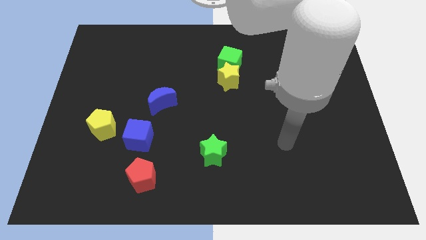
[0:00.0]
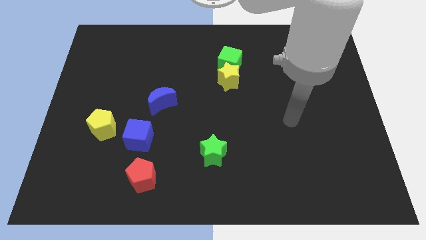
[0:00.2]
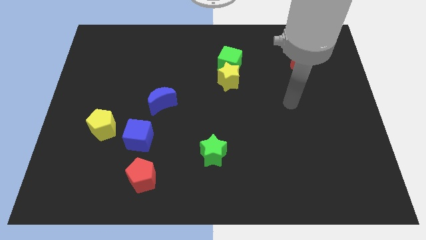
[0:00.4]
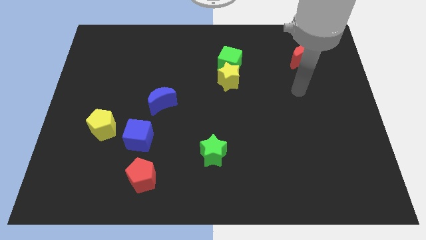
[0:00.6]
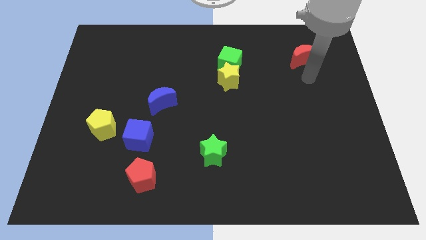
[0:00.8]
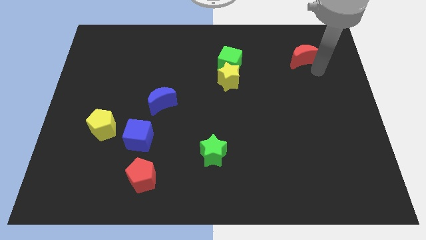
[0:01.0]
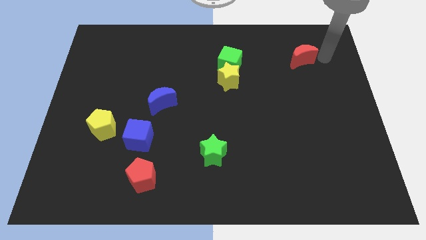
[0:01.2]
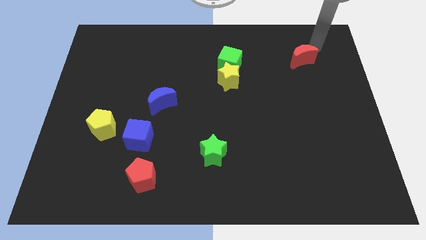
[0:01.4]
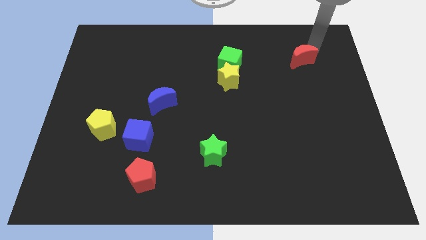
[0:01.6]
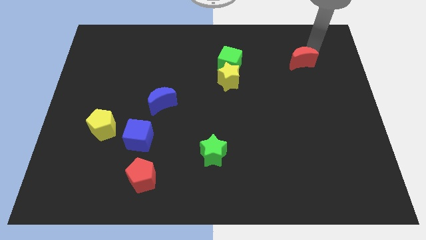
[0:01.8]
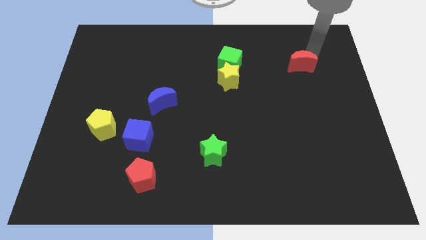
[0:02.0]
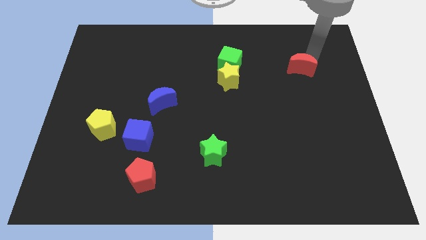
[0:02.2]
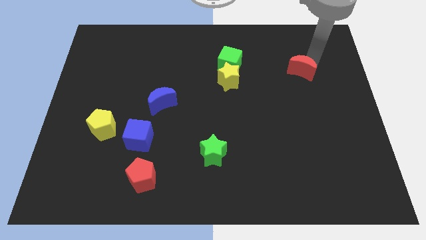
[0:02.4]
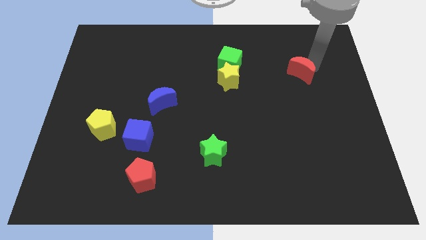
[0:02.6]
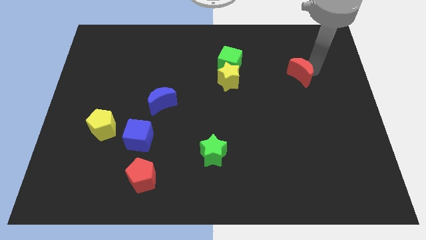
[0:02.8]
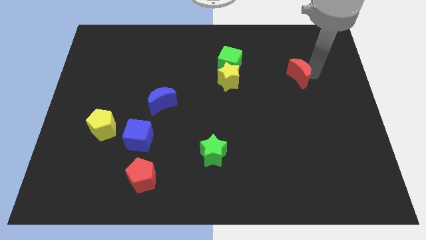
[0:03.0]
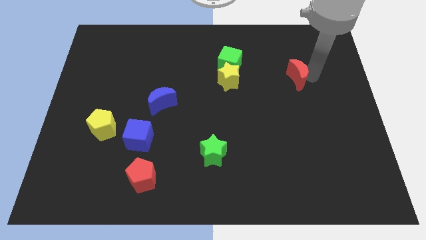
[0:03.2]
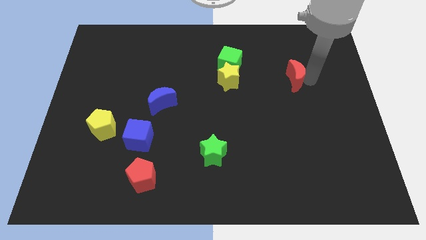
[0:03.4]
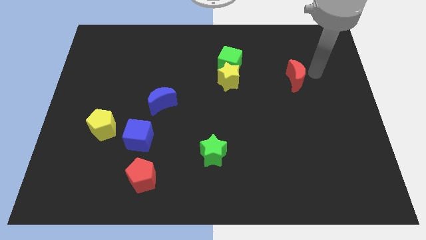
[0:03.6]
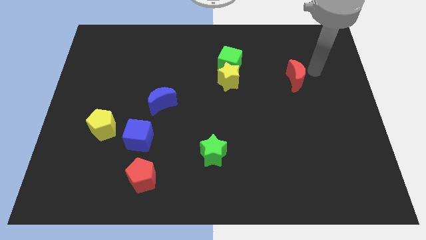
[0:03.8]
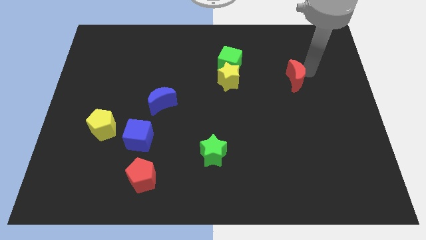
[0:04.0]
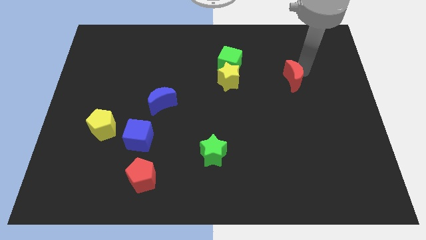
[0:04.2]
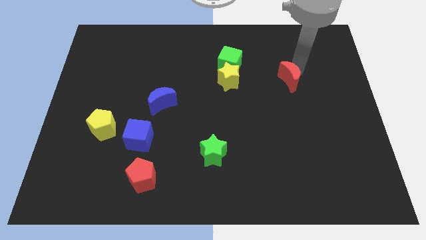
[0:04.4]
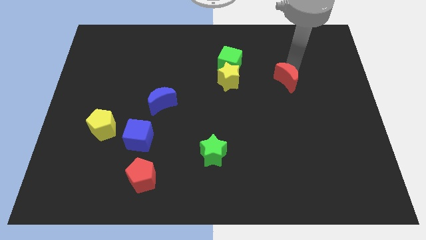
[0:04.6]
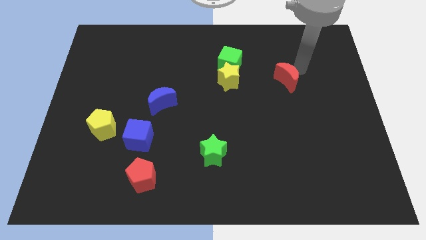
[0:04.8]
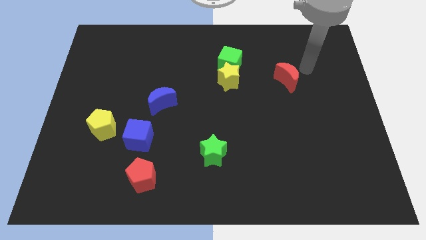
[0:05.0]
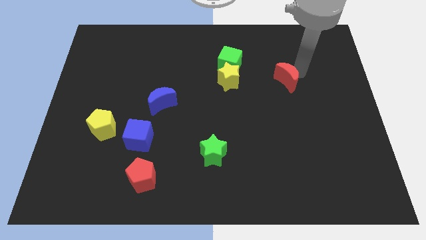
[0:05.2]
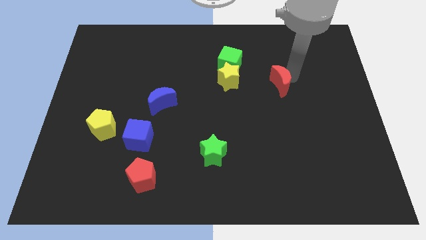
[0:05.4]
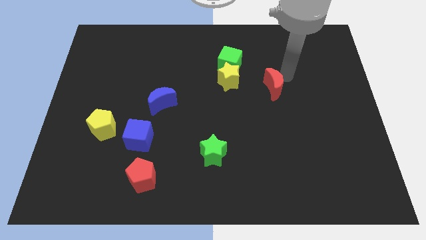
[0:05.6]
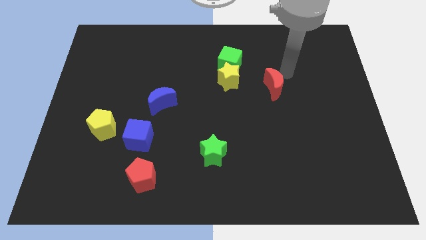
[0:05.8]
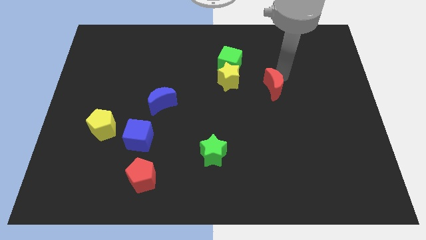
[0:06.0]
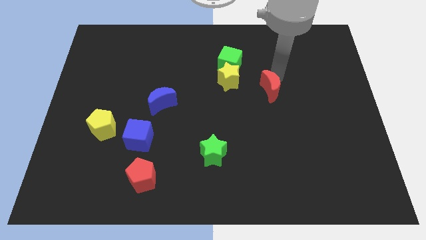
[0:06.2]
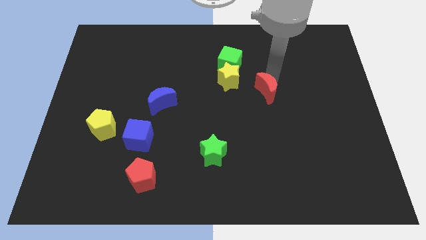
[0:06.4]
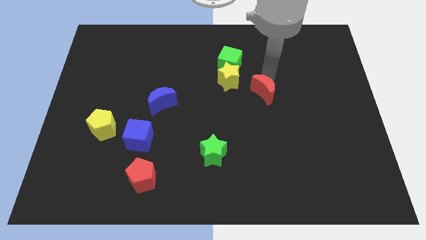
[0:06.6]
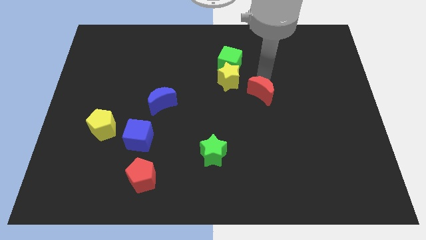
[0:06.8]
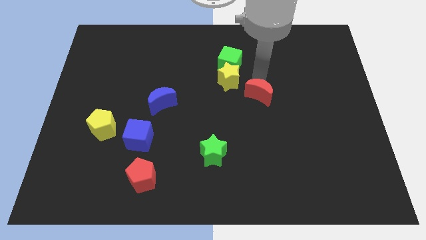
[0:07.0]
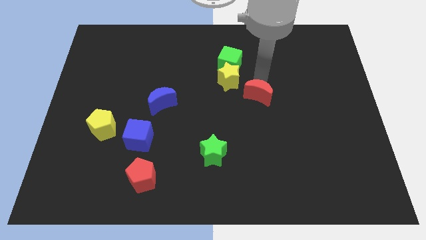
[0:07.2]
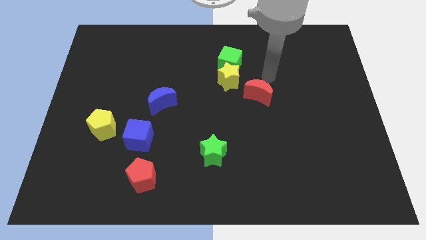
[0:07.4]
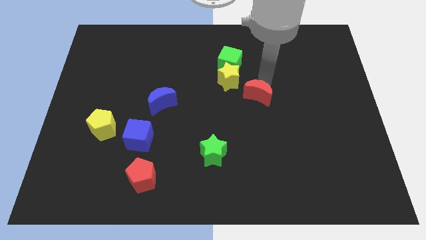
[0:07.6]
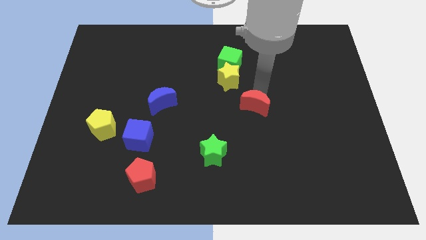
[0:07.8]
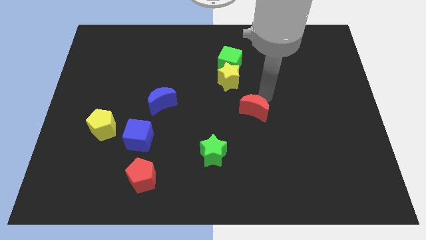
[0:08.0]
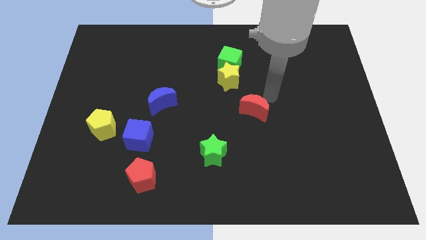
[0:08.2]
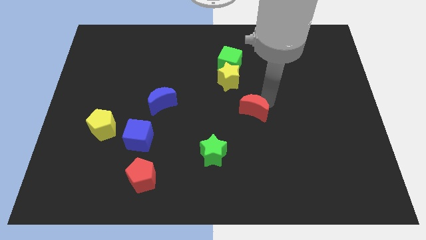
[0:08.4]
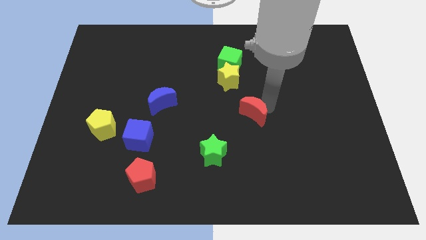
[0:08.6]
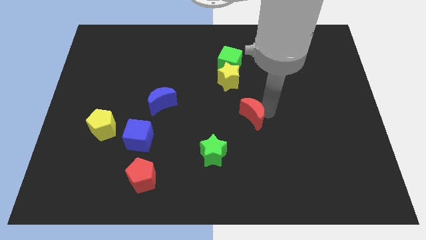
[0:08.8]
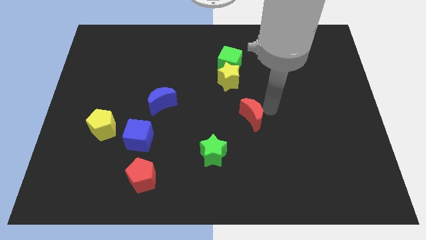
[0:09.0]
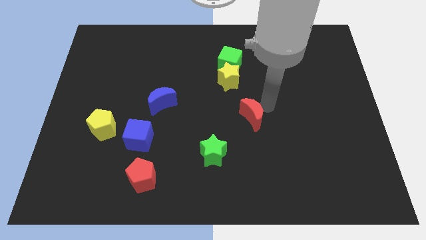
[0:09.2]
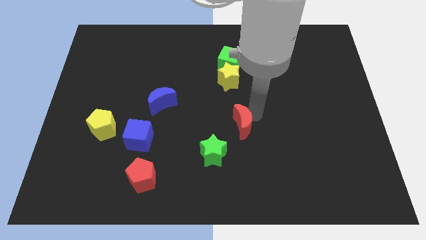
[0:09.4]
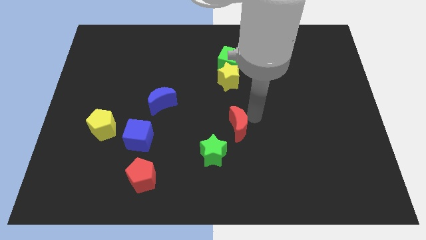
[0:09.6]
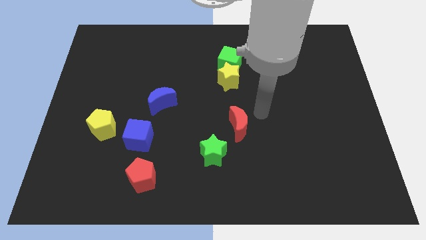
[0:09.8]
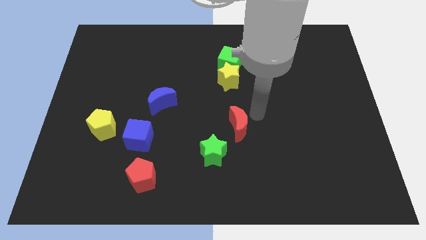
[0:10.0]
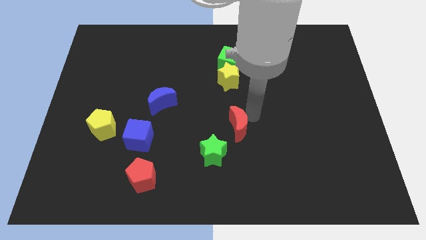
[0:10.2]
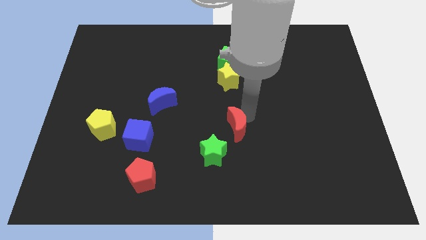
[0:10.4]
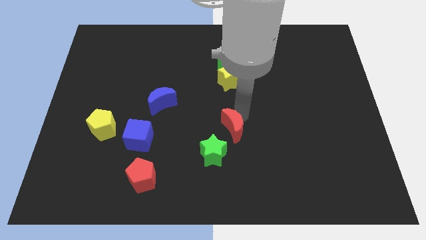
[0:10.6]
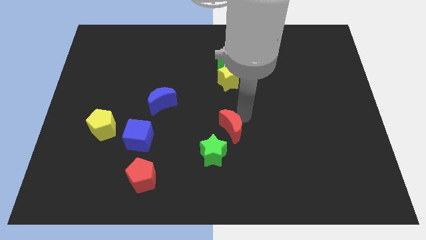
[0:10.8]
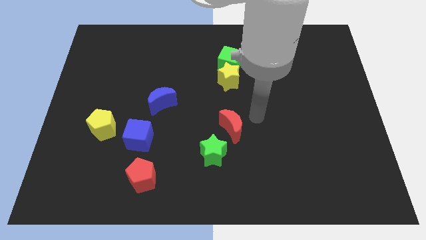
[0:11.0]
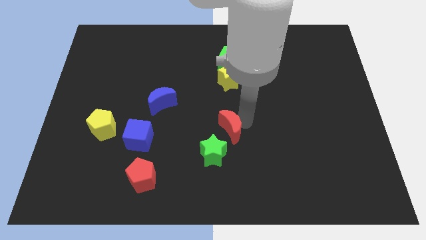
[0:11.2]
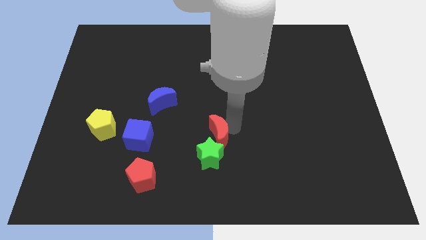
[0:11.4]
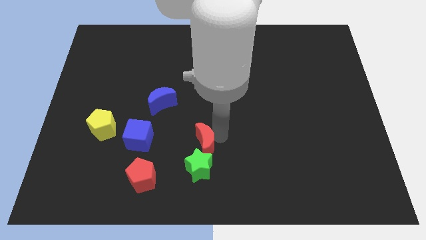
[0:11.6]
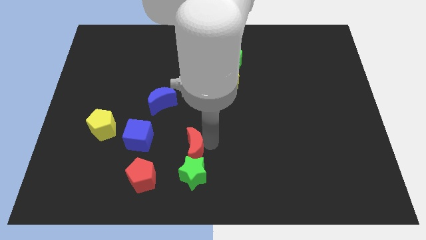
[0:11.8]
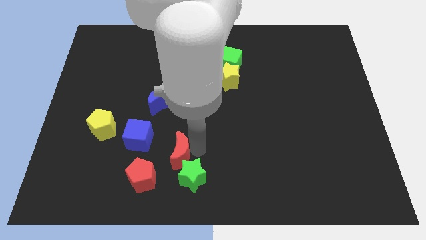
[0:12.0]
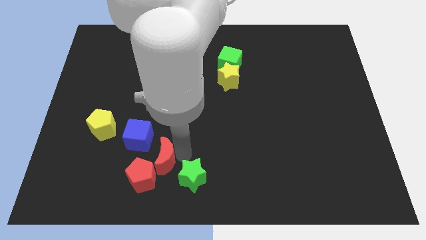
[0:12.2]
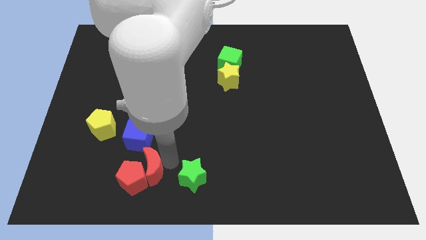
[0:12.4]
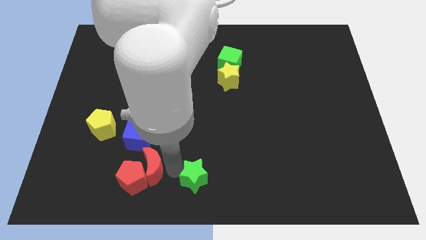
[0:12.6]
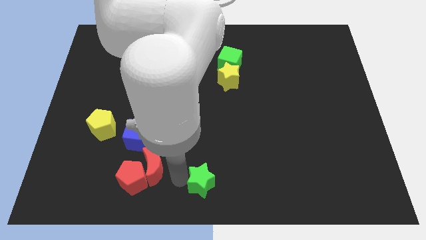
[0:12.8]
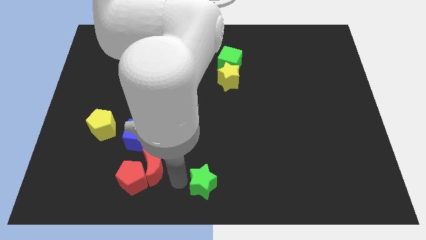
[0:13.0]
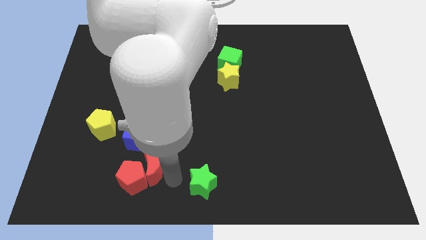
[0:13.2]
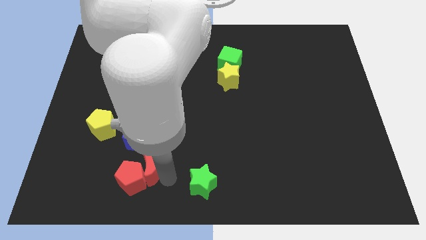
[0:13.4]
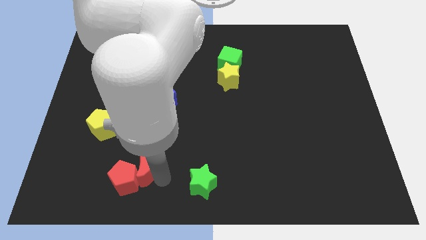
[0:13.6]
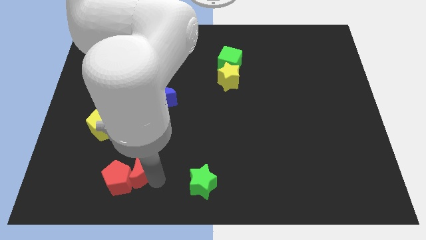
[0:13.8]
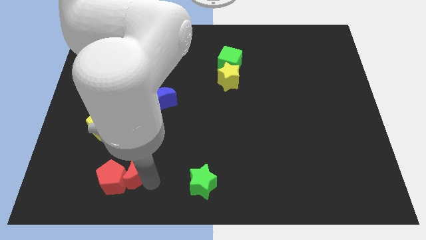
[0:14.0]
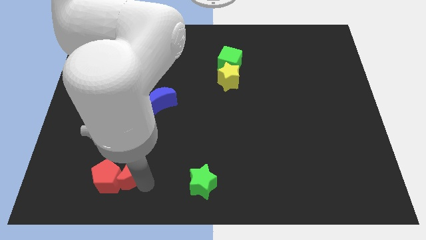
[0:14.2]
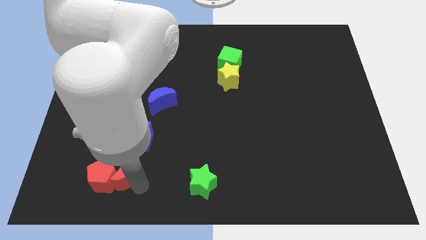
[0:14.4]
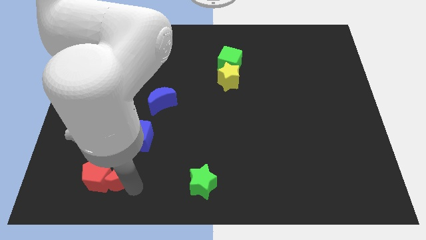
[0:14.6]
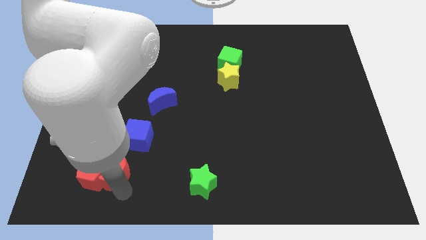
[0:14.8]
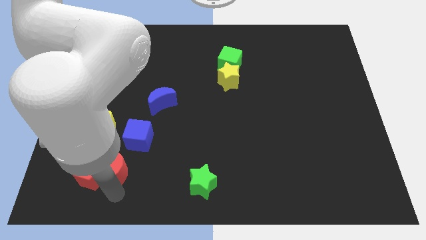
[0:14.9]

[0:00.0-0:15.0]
move the red moon to the bottom side of the yellow pentagon
